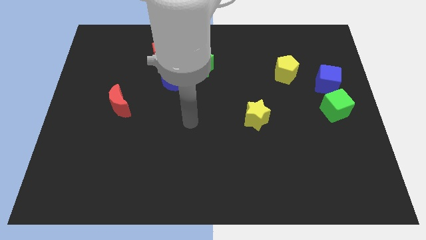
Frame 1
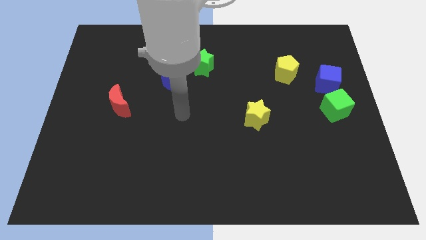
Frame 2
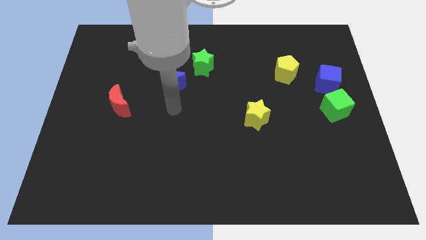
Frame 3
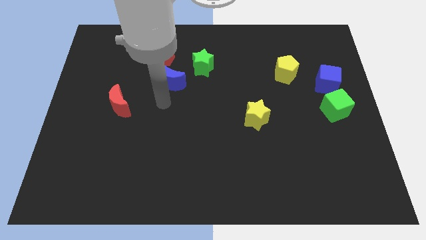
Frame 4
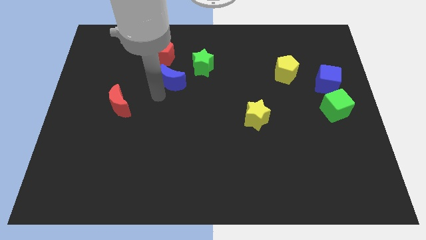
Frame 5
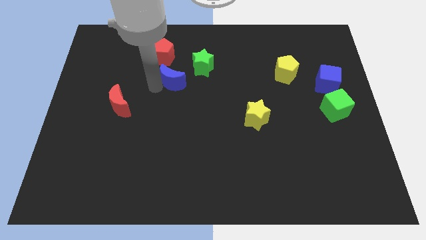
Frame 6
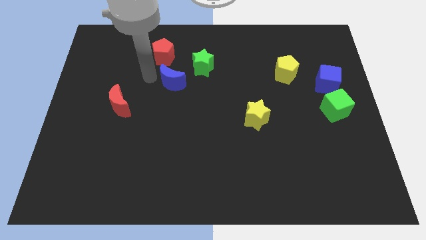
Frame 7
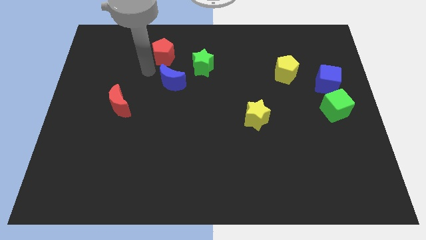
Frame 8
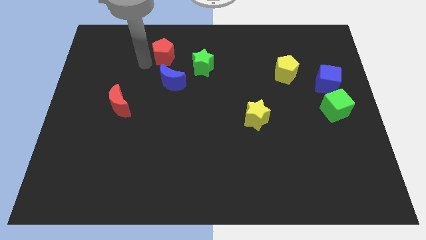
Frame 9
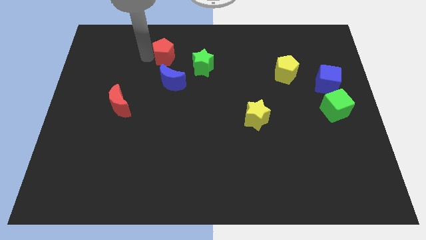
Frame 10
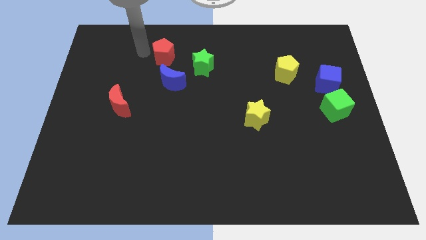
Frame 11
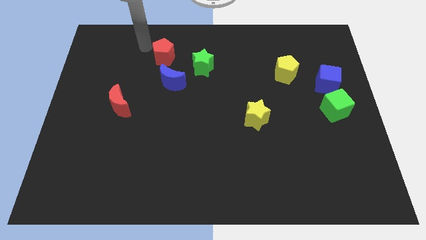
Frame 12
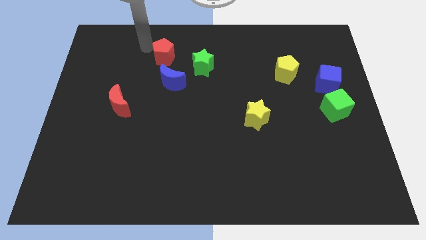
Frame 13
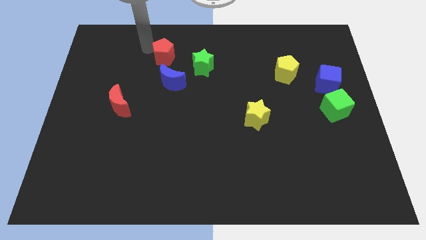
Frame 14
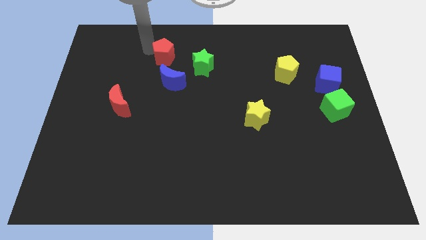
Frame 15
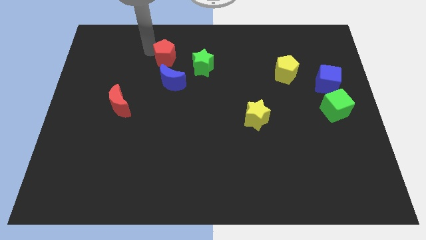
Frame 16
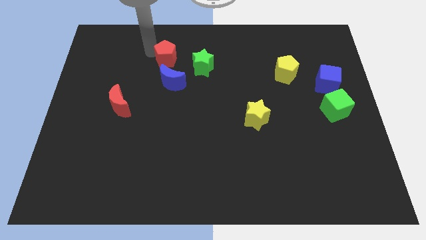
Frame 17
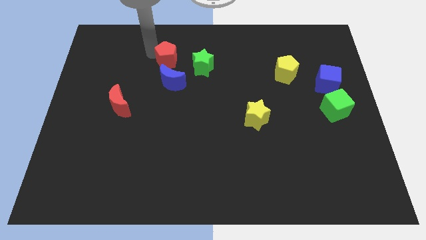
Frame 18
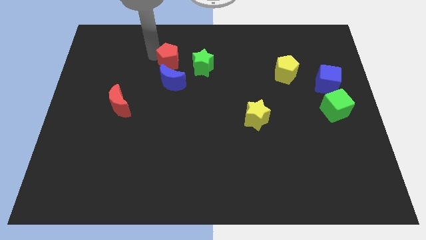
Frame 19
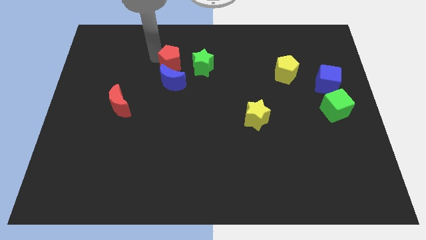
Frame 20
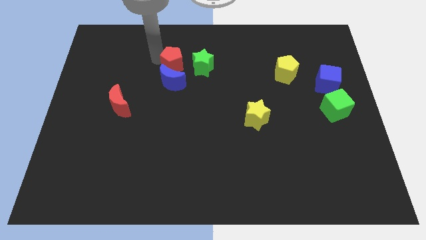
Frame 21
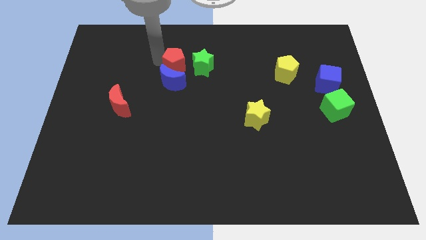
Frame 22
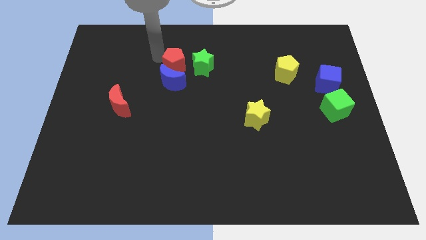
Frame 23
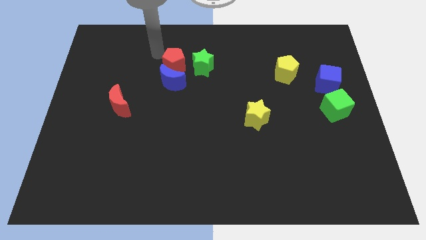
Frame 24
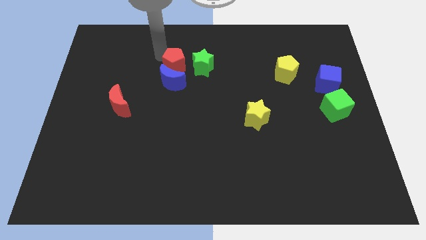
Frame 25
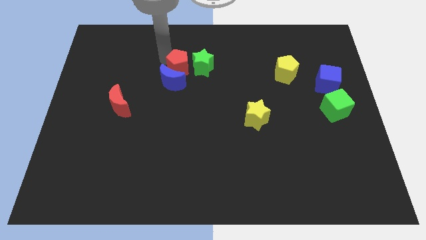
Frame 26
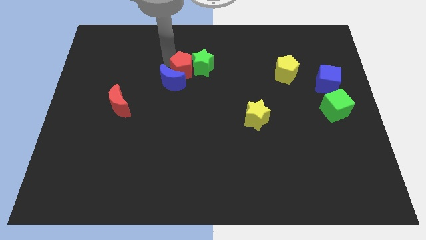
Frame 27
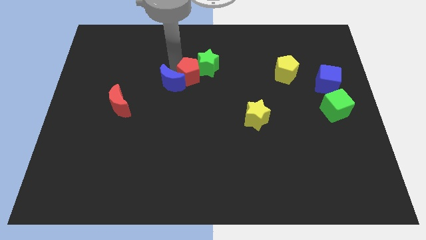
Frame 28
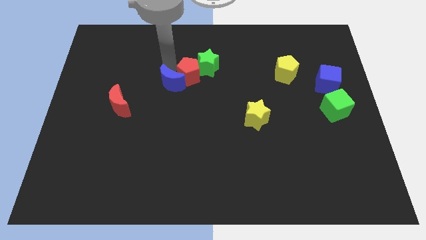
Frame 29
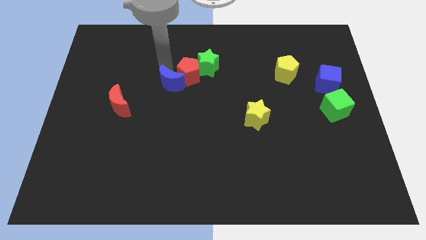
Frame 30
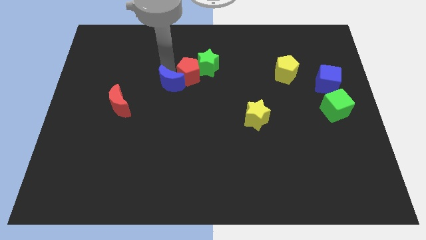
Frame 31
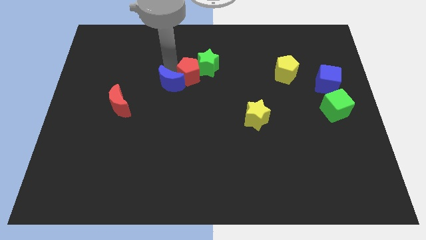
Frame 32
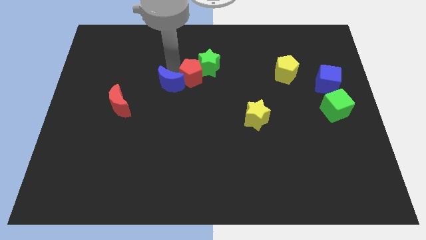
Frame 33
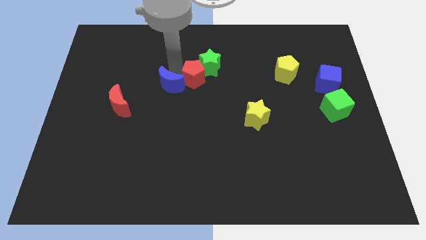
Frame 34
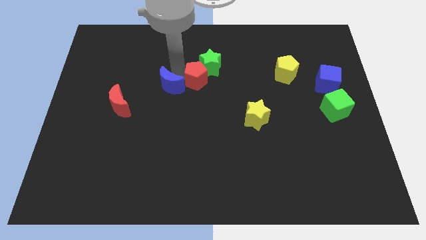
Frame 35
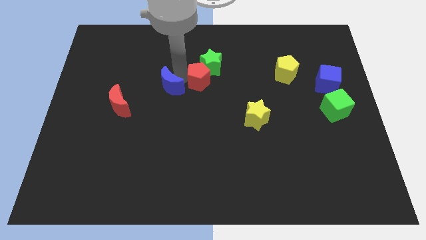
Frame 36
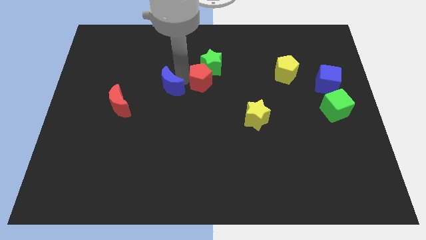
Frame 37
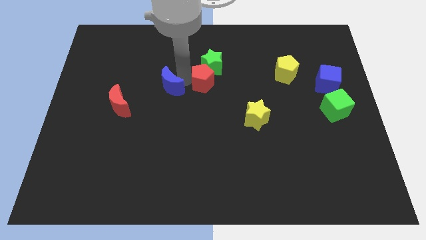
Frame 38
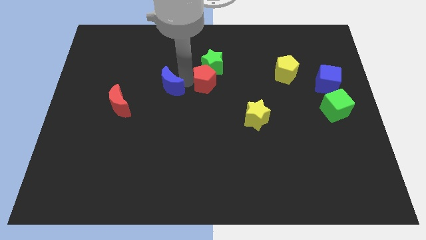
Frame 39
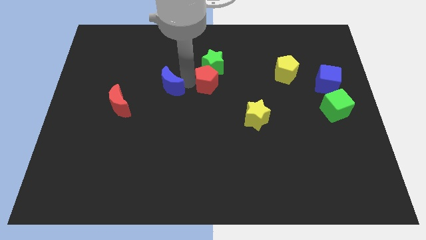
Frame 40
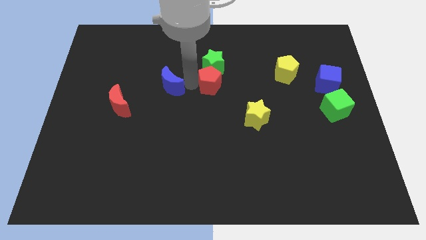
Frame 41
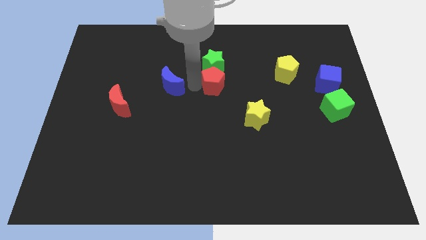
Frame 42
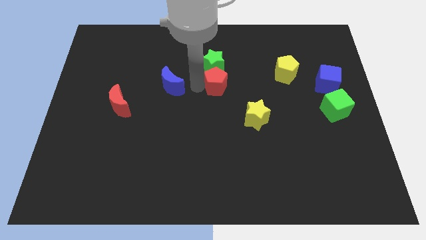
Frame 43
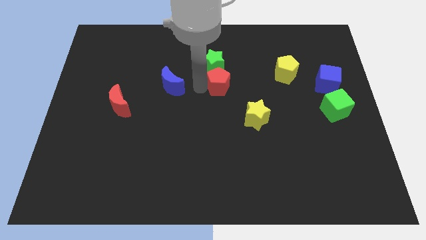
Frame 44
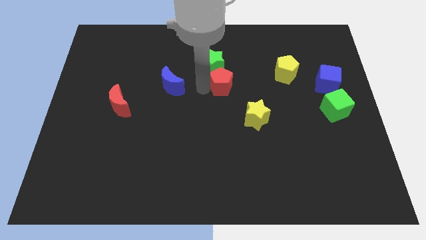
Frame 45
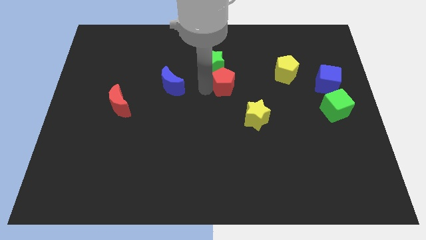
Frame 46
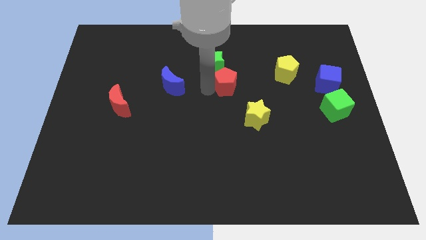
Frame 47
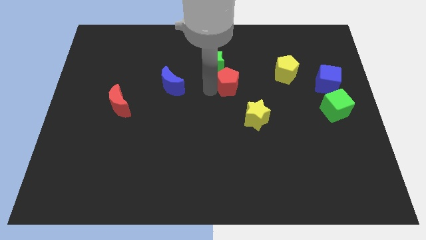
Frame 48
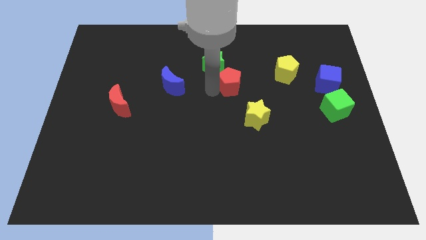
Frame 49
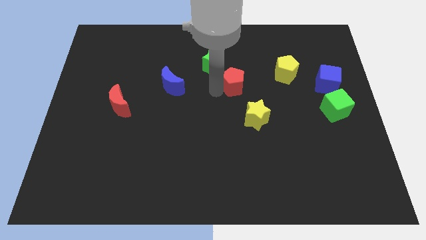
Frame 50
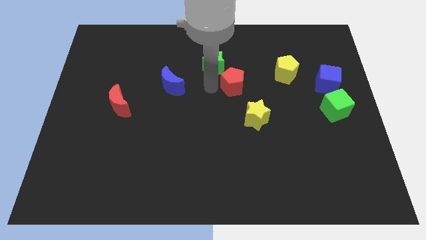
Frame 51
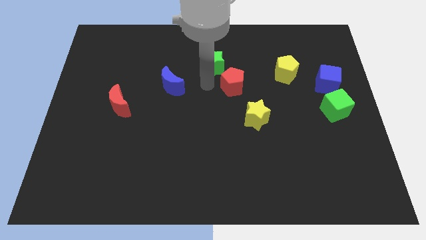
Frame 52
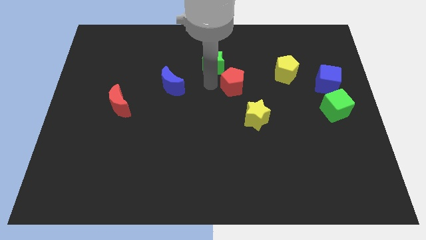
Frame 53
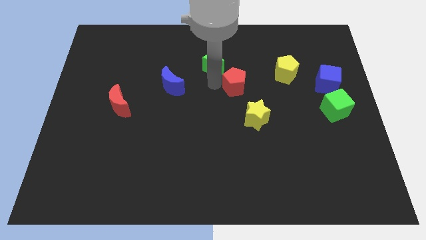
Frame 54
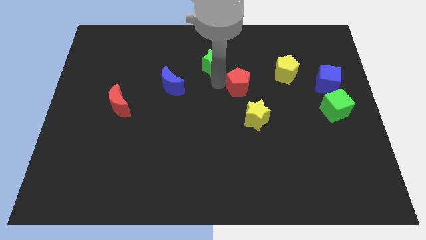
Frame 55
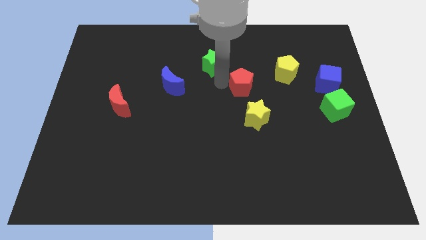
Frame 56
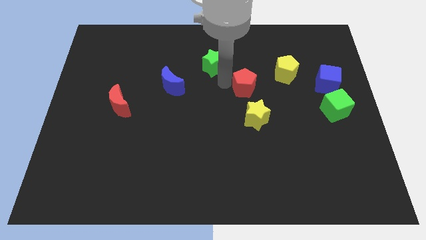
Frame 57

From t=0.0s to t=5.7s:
slide the red pentagon to the bottom left side of the yellow pentagon

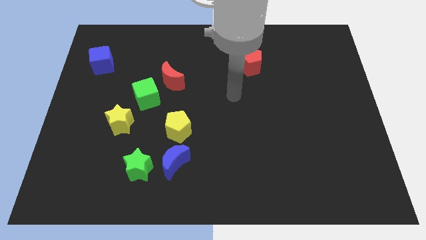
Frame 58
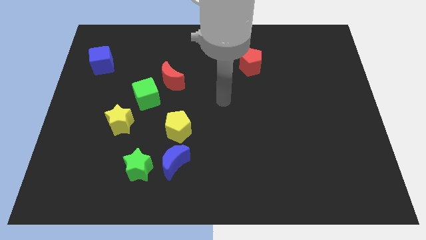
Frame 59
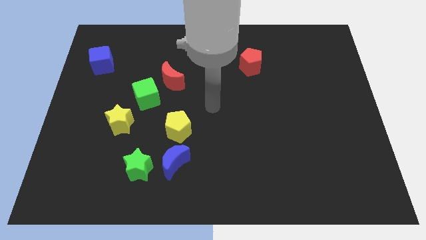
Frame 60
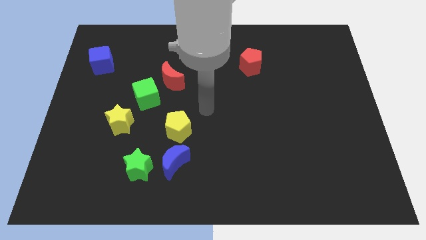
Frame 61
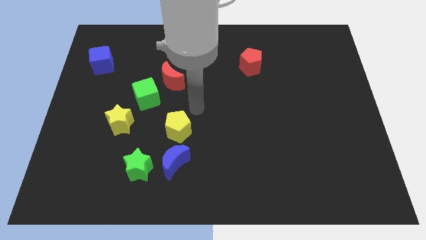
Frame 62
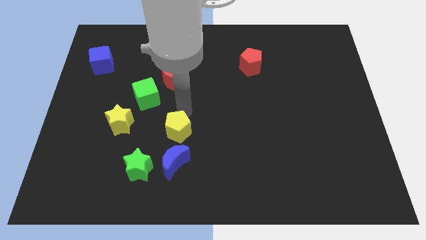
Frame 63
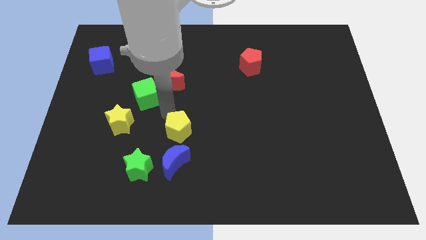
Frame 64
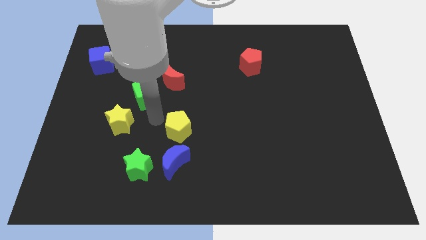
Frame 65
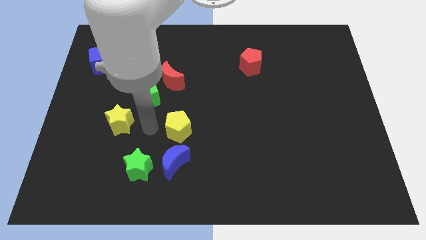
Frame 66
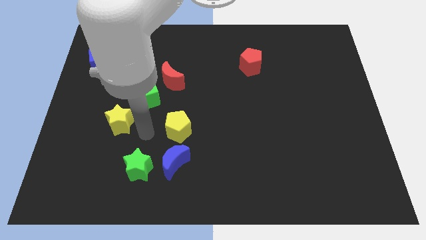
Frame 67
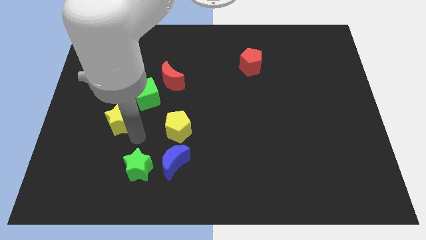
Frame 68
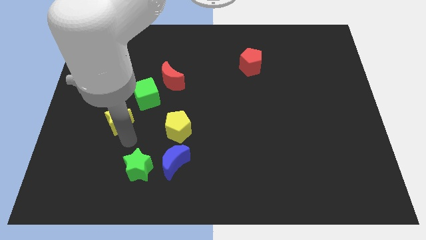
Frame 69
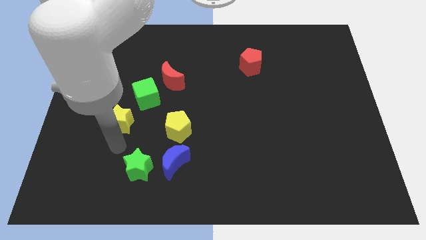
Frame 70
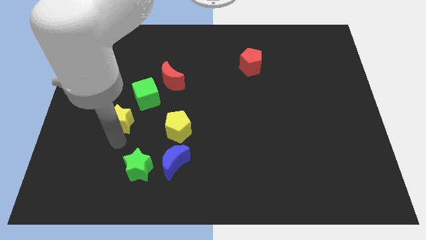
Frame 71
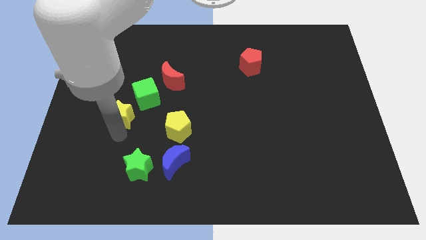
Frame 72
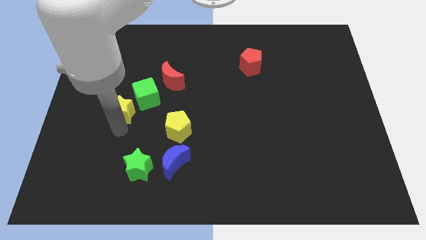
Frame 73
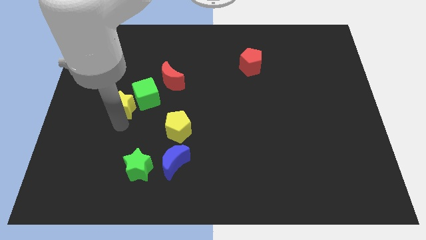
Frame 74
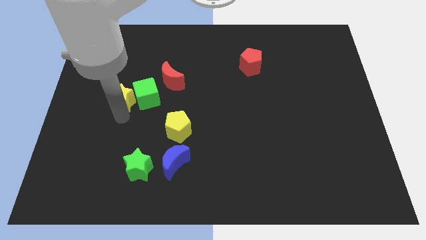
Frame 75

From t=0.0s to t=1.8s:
move the yellow star diagonally up and to the left of the green cube
